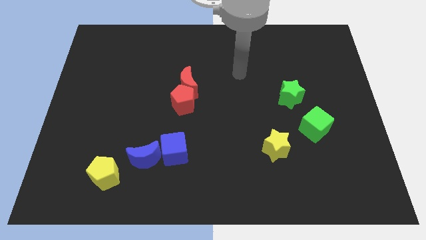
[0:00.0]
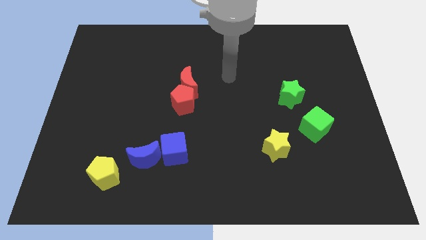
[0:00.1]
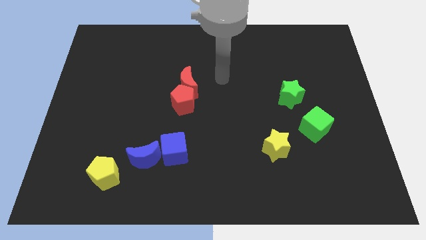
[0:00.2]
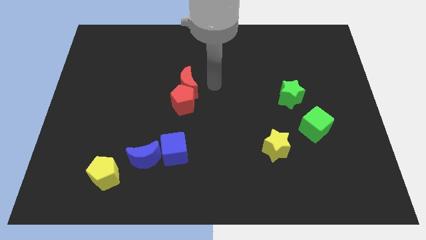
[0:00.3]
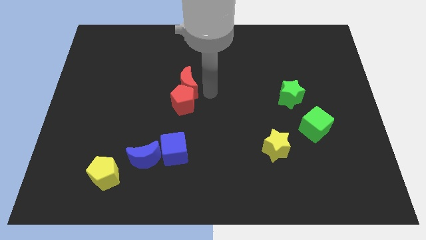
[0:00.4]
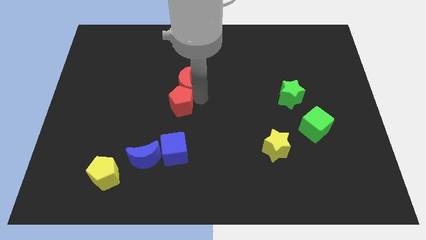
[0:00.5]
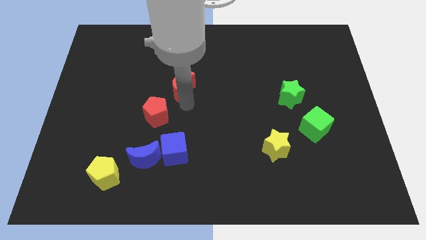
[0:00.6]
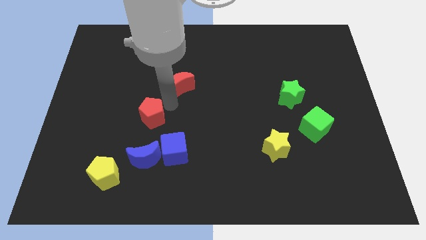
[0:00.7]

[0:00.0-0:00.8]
move the red moon away from the red pentagon

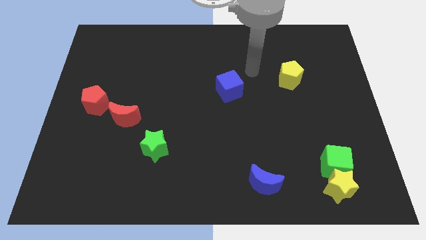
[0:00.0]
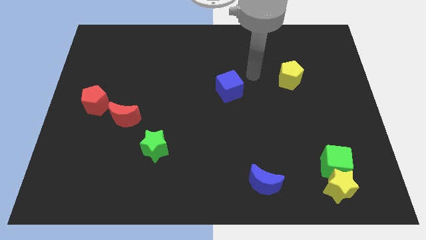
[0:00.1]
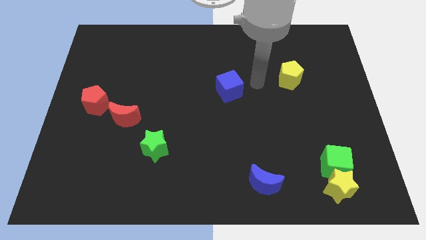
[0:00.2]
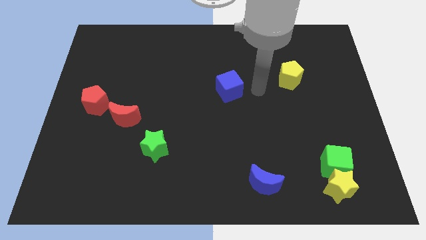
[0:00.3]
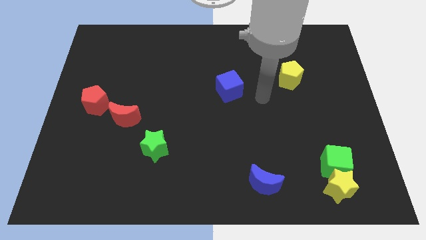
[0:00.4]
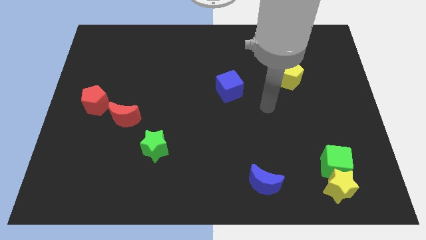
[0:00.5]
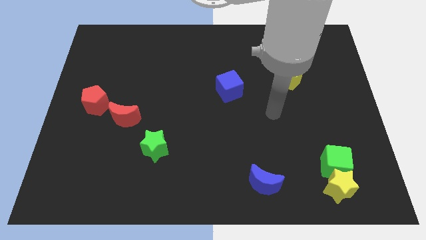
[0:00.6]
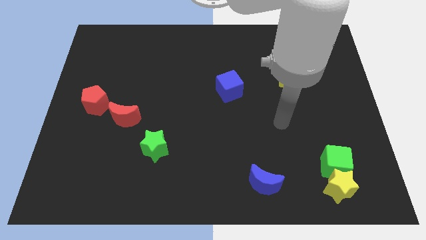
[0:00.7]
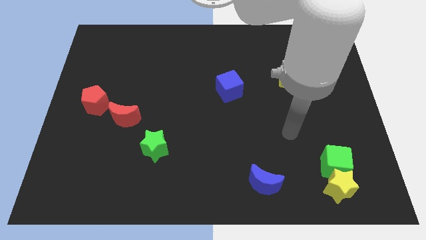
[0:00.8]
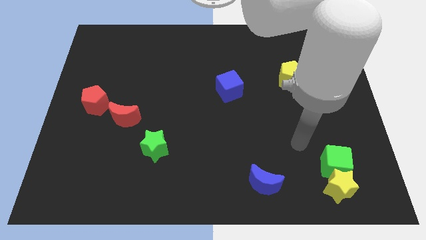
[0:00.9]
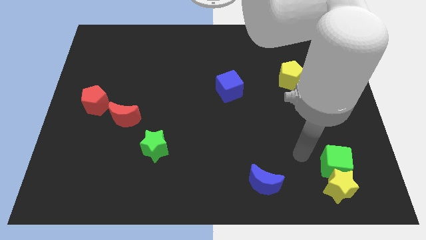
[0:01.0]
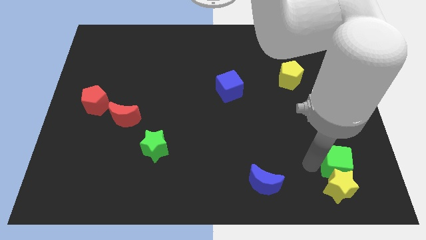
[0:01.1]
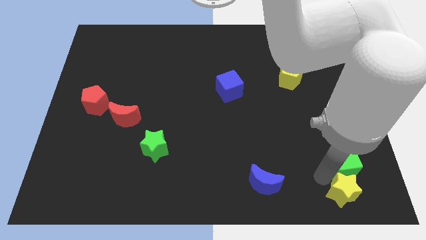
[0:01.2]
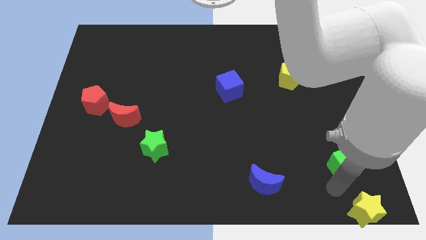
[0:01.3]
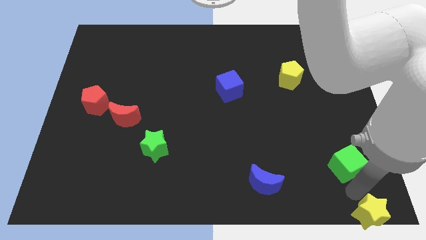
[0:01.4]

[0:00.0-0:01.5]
move the green cube away from the yellow star

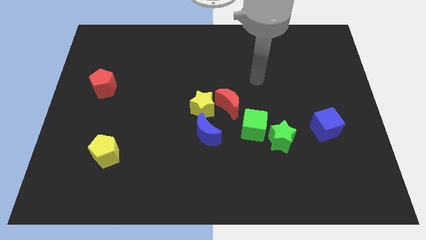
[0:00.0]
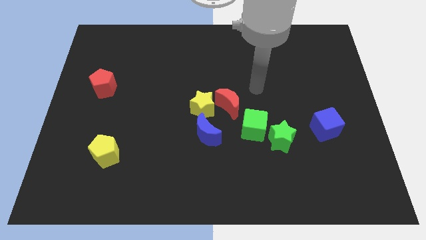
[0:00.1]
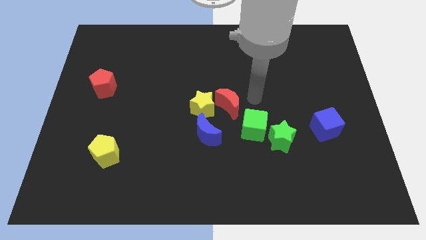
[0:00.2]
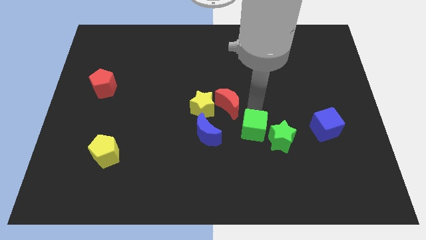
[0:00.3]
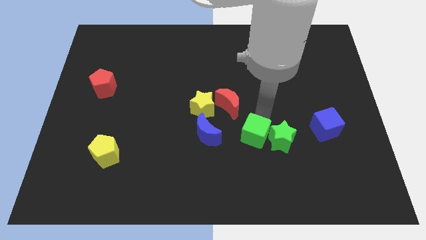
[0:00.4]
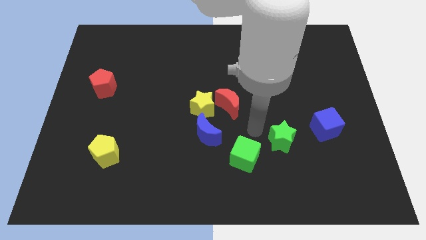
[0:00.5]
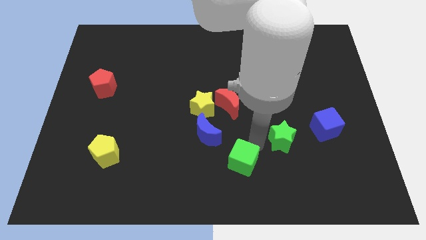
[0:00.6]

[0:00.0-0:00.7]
pull the green star apart from the green cube

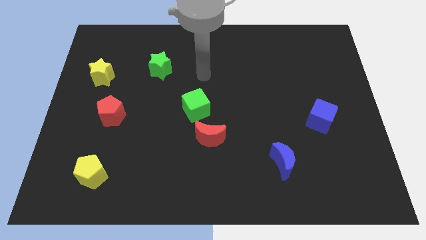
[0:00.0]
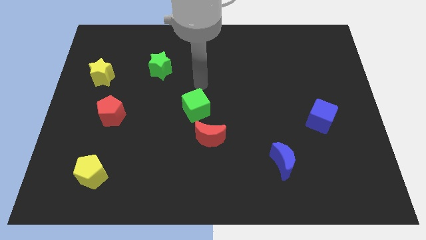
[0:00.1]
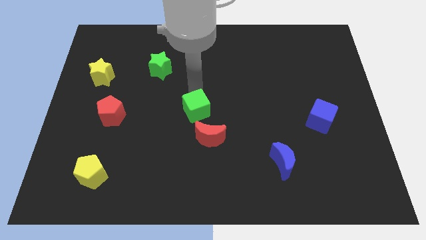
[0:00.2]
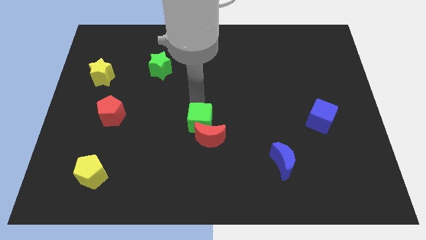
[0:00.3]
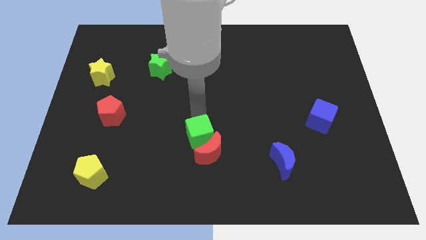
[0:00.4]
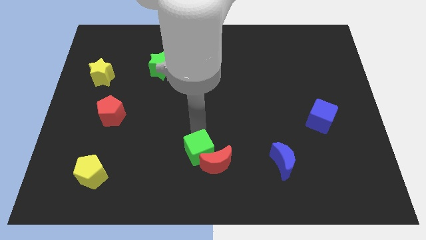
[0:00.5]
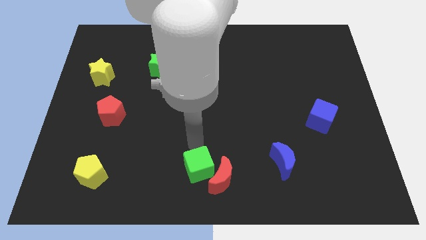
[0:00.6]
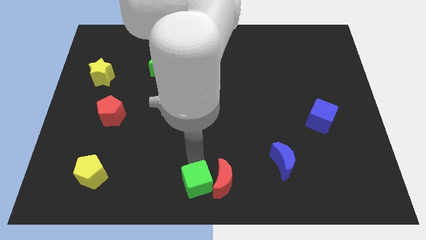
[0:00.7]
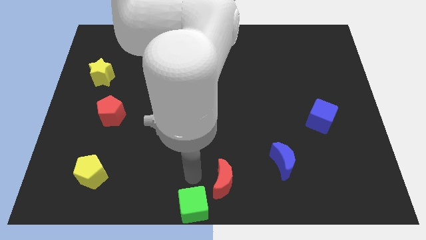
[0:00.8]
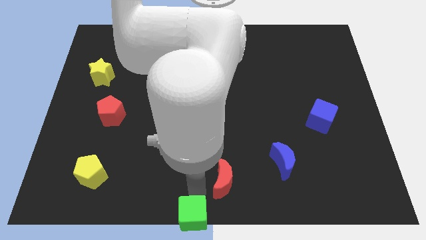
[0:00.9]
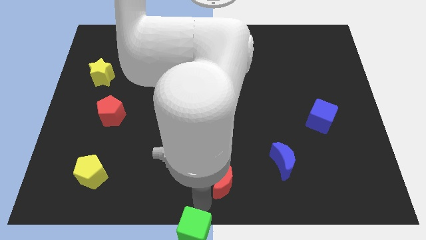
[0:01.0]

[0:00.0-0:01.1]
move the red moon away from the green cube

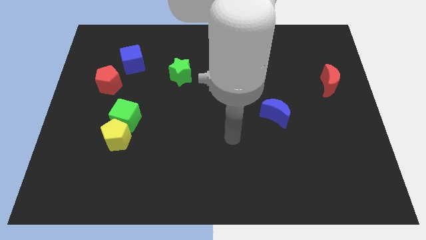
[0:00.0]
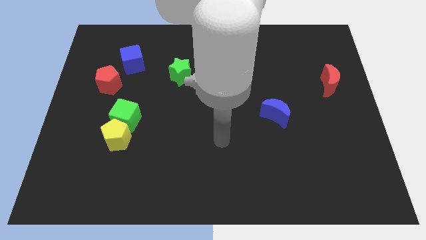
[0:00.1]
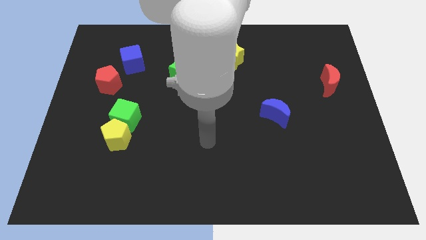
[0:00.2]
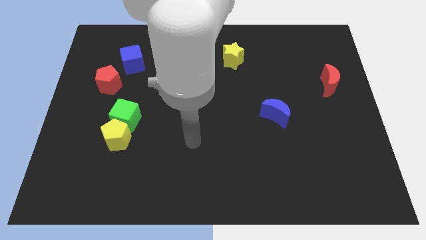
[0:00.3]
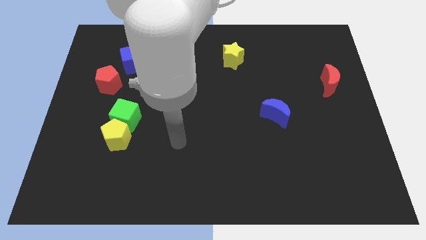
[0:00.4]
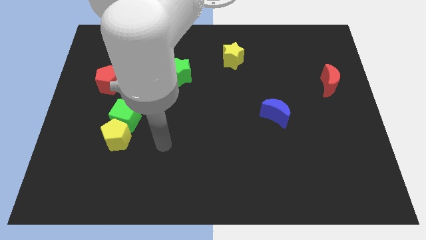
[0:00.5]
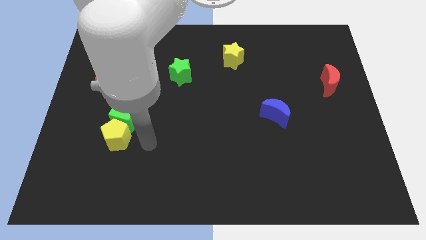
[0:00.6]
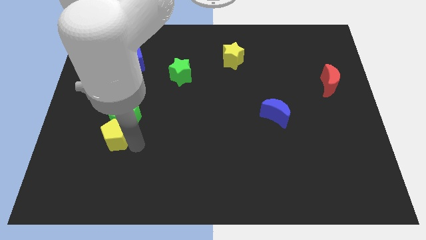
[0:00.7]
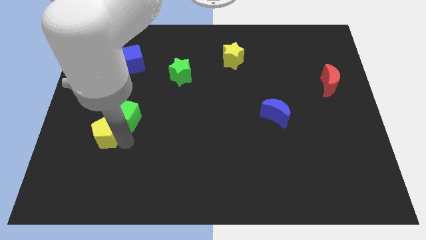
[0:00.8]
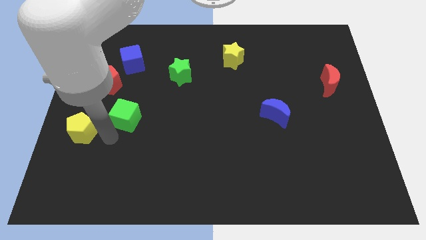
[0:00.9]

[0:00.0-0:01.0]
move the green cube away from the yellow pentagon

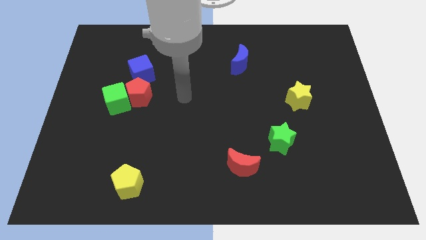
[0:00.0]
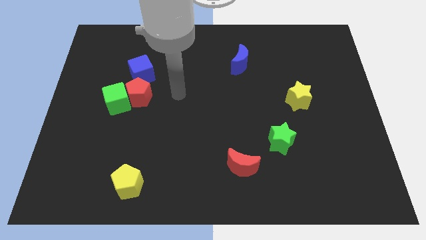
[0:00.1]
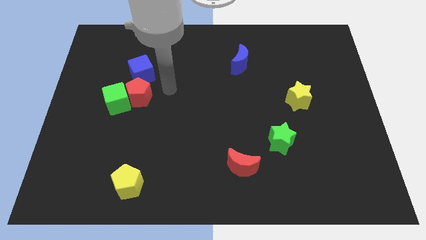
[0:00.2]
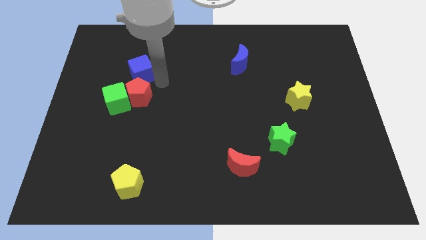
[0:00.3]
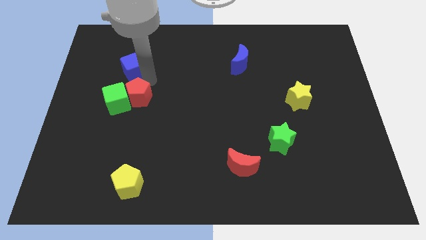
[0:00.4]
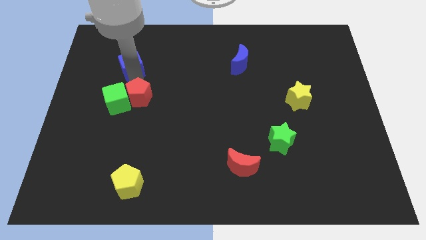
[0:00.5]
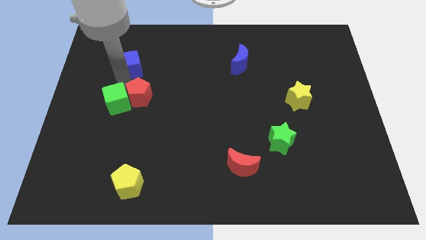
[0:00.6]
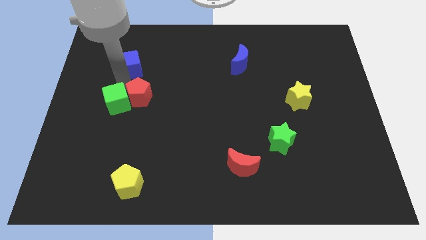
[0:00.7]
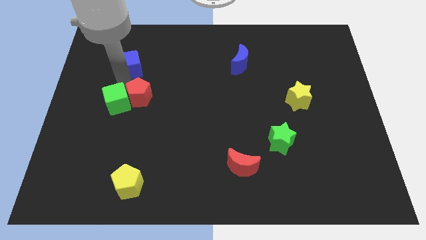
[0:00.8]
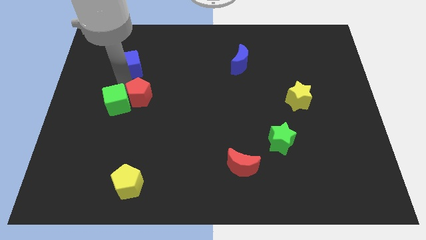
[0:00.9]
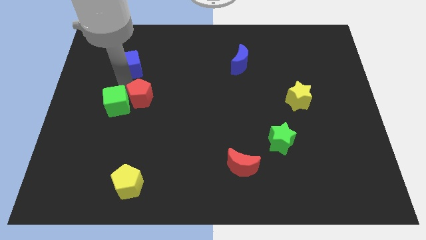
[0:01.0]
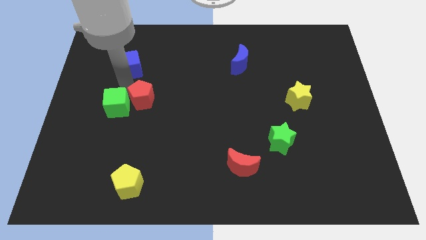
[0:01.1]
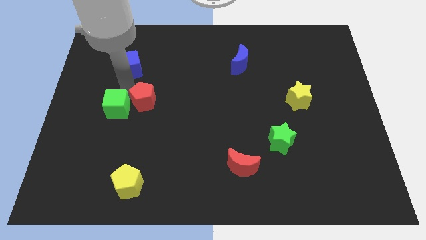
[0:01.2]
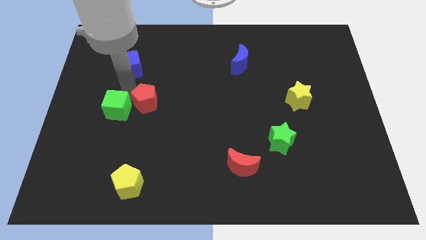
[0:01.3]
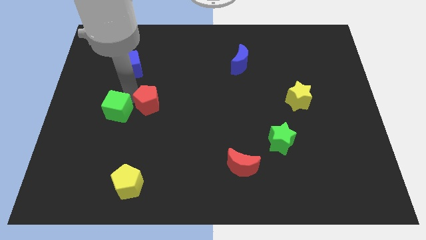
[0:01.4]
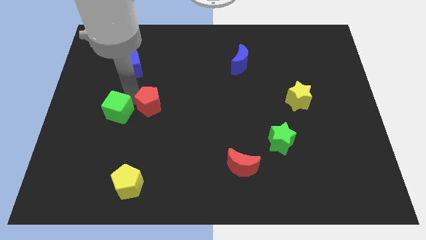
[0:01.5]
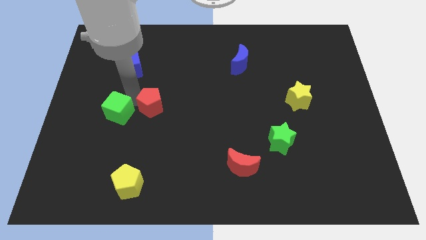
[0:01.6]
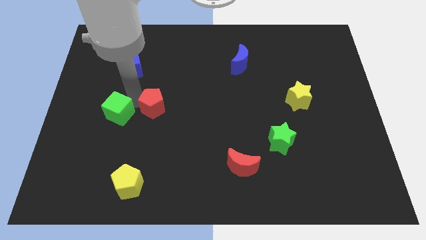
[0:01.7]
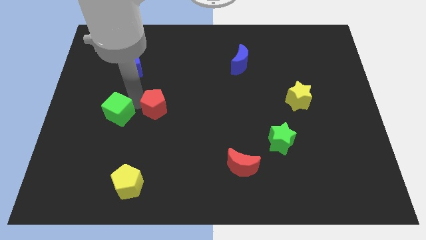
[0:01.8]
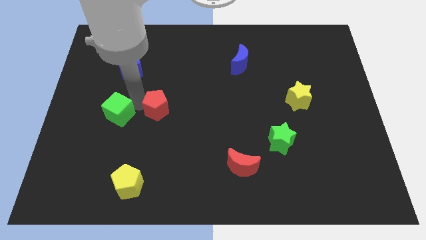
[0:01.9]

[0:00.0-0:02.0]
move the red pentagon away from the green cube and blue cube

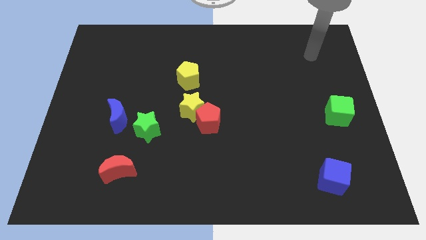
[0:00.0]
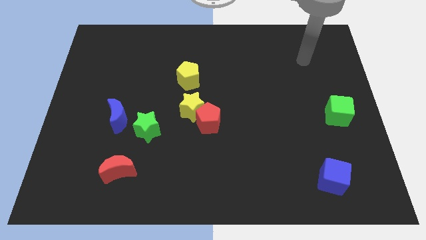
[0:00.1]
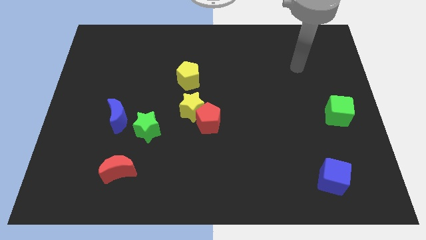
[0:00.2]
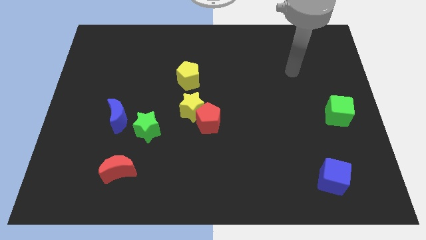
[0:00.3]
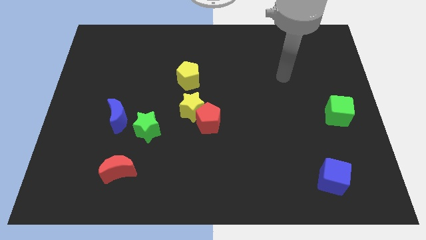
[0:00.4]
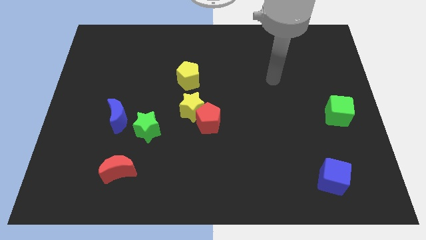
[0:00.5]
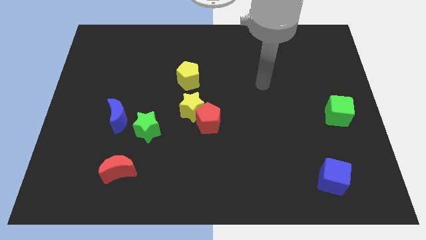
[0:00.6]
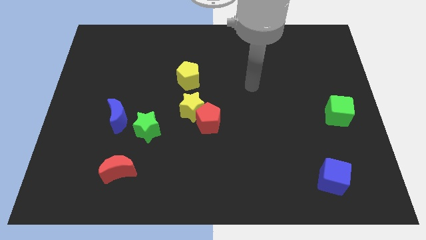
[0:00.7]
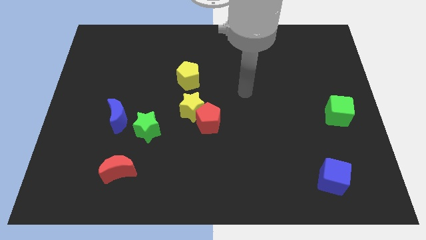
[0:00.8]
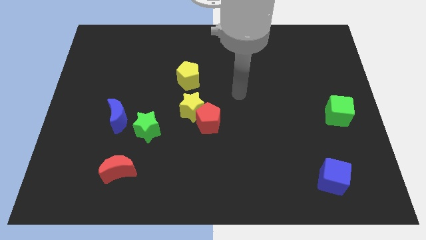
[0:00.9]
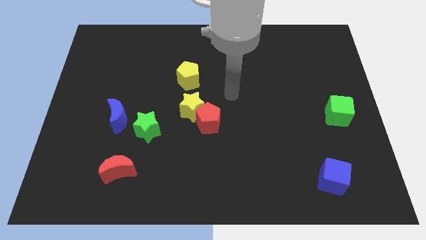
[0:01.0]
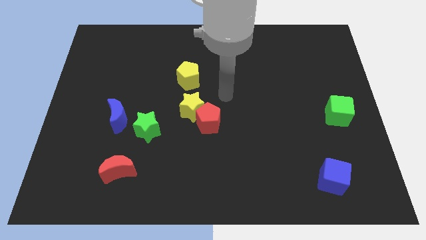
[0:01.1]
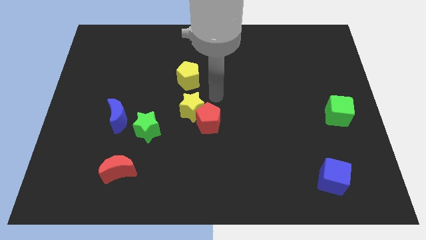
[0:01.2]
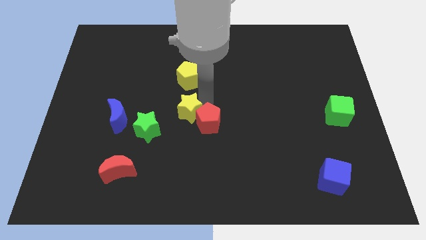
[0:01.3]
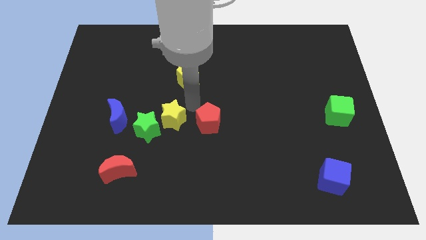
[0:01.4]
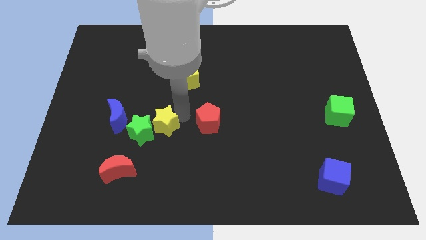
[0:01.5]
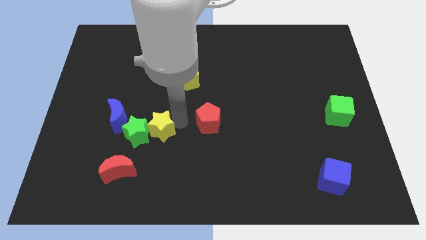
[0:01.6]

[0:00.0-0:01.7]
pull the red pentagon apart from the yellow star

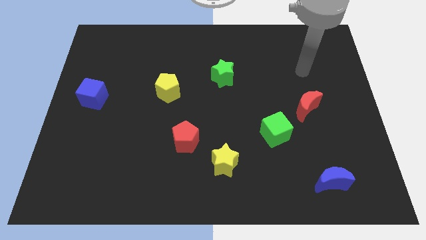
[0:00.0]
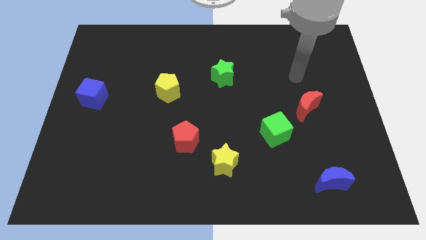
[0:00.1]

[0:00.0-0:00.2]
move the red pentagon away from the yellow star

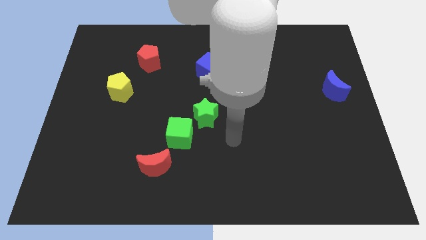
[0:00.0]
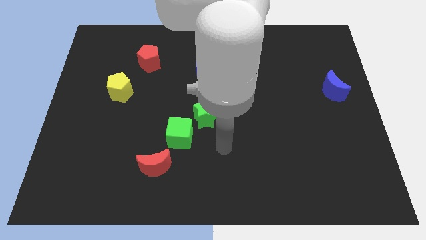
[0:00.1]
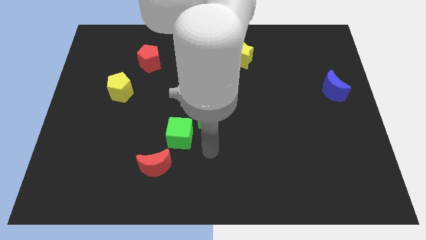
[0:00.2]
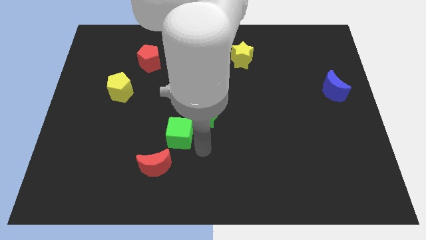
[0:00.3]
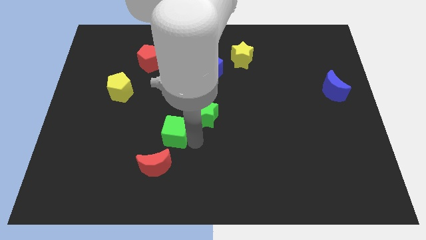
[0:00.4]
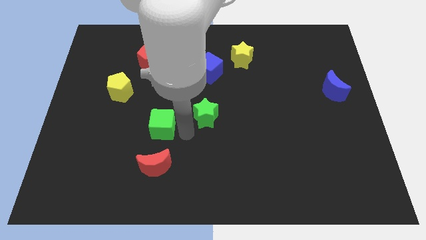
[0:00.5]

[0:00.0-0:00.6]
separate the green star from the green cube
